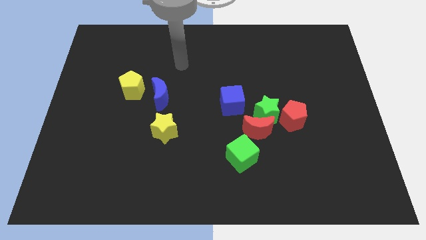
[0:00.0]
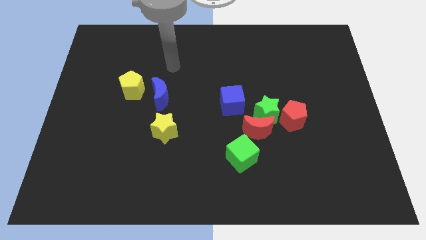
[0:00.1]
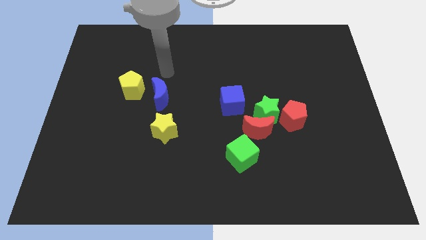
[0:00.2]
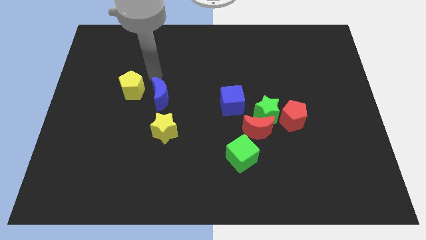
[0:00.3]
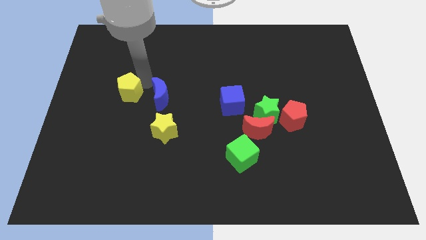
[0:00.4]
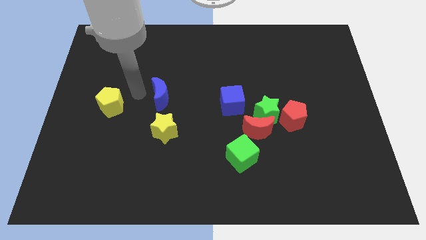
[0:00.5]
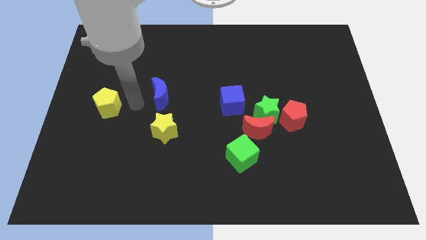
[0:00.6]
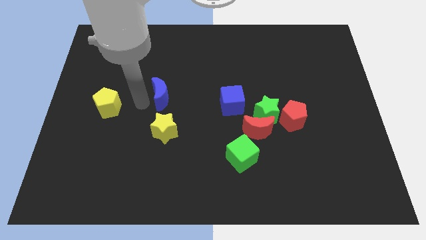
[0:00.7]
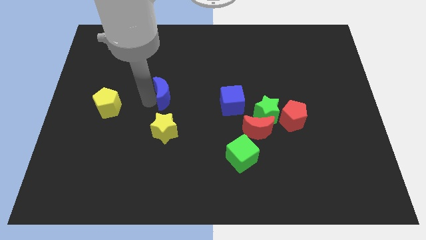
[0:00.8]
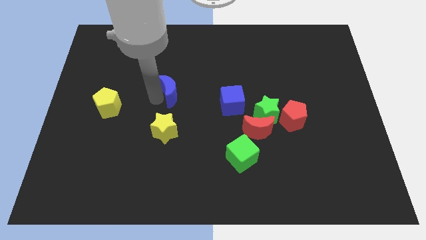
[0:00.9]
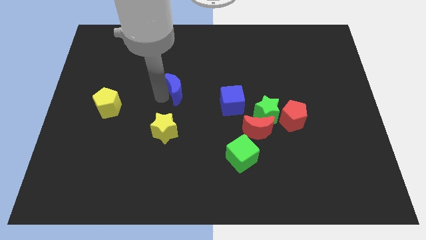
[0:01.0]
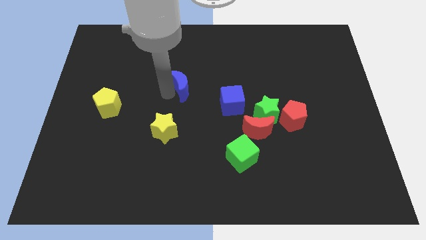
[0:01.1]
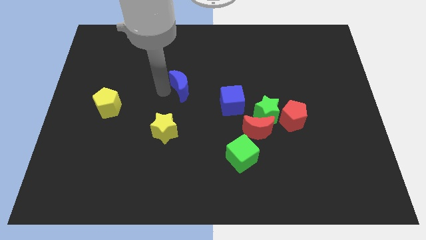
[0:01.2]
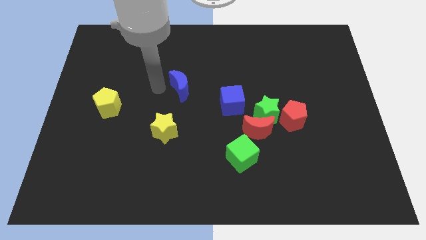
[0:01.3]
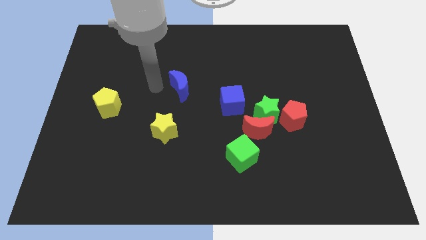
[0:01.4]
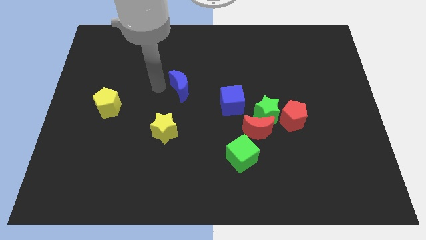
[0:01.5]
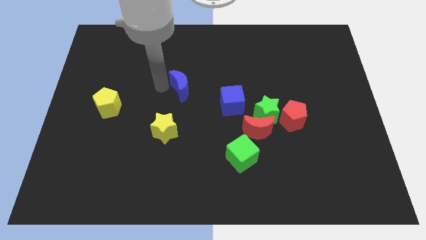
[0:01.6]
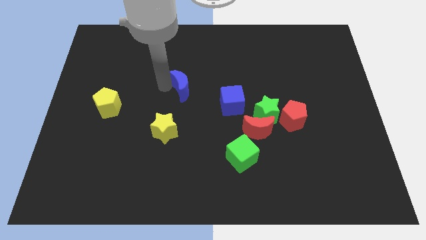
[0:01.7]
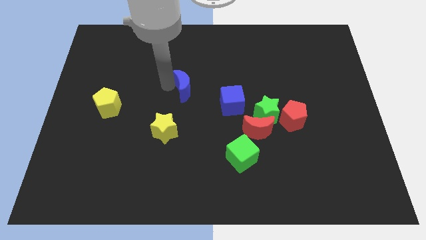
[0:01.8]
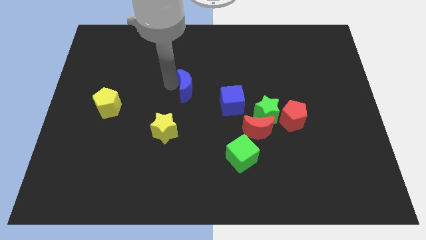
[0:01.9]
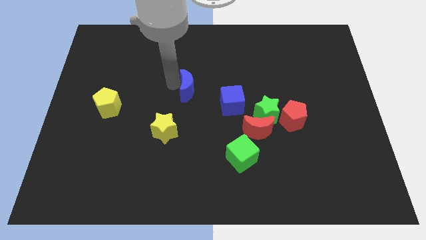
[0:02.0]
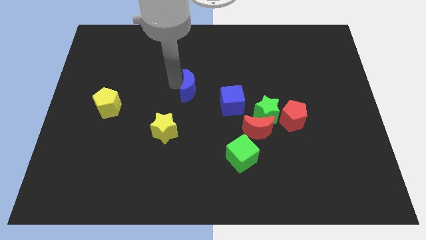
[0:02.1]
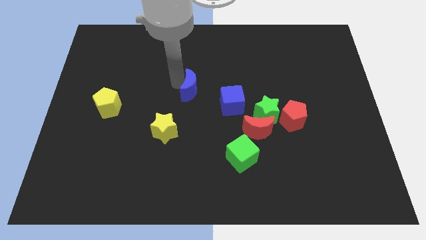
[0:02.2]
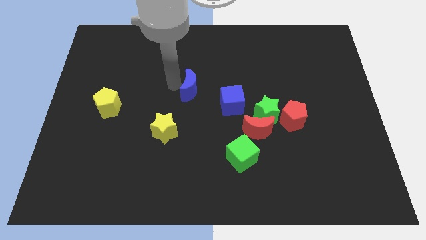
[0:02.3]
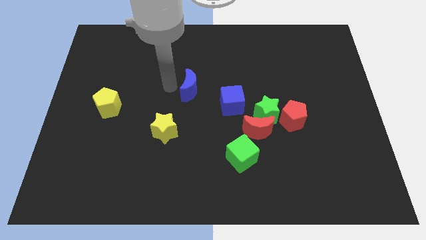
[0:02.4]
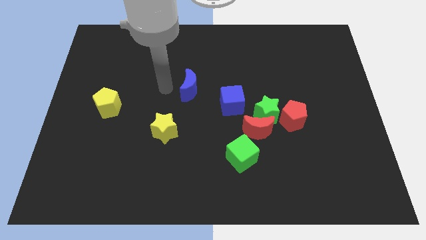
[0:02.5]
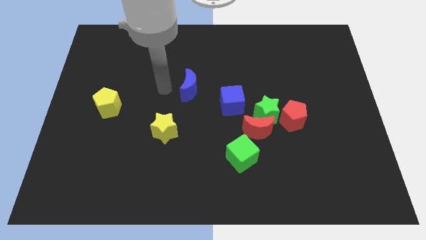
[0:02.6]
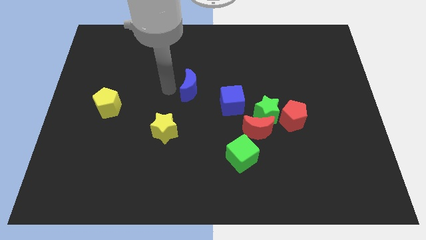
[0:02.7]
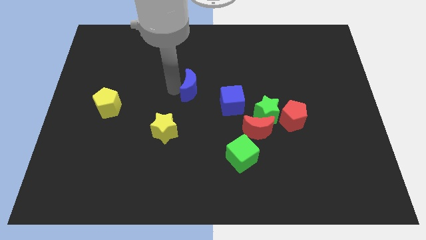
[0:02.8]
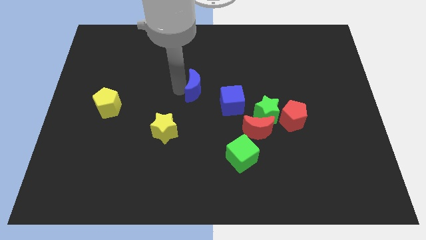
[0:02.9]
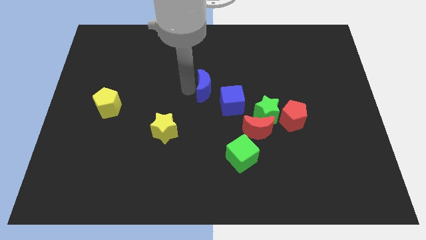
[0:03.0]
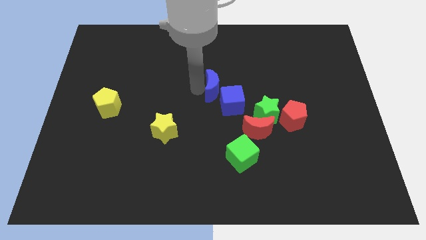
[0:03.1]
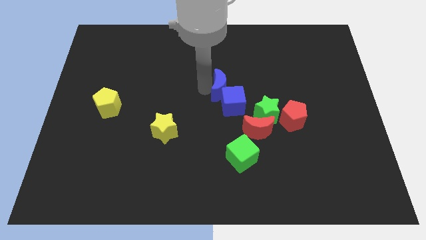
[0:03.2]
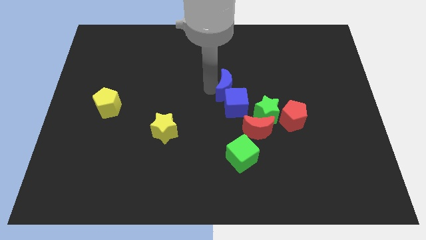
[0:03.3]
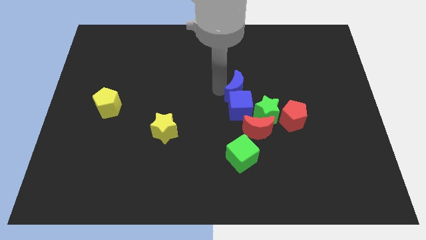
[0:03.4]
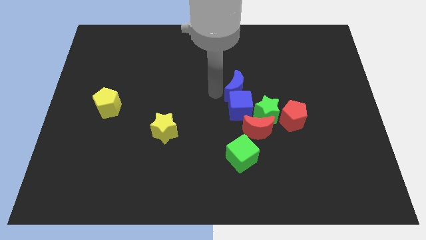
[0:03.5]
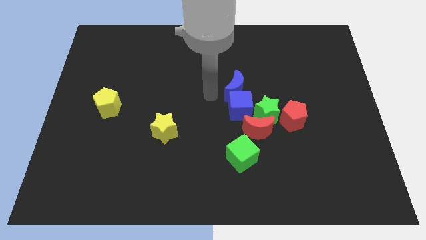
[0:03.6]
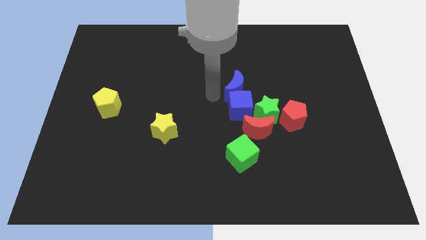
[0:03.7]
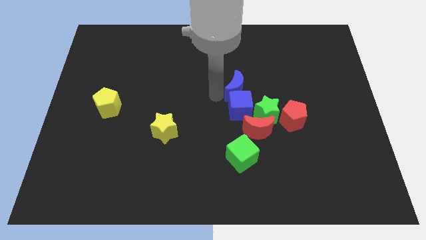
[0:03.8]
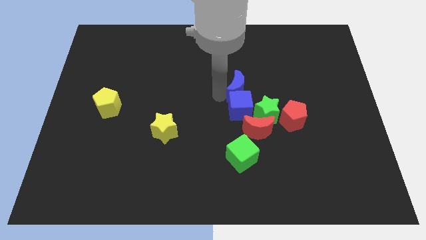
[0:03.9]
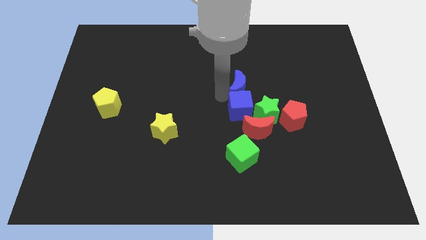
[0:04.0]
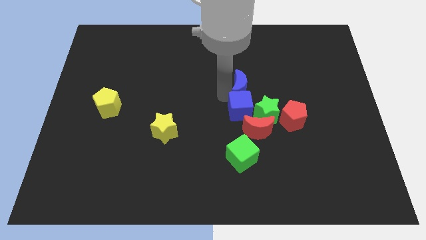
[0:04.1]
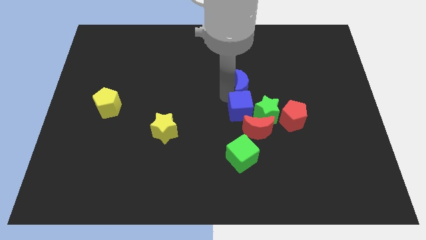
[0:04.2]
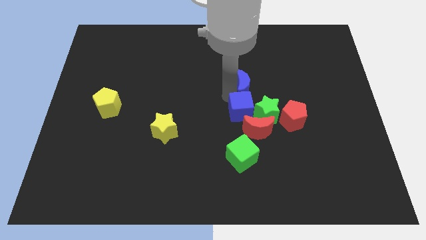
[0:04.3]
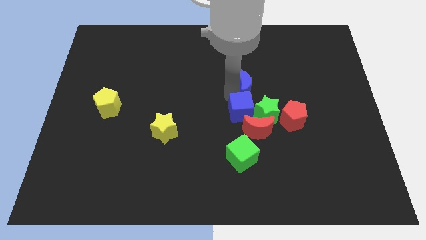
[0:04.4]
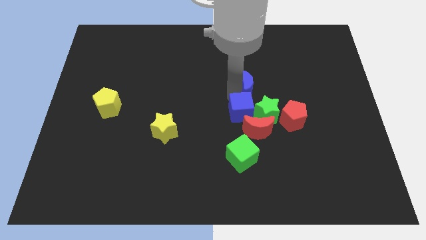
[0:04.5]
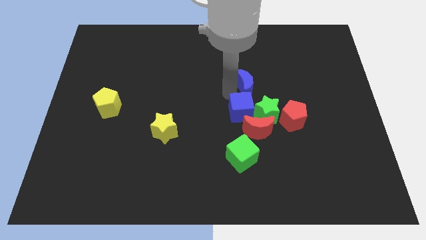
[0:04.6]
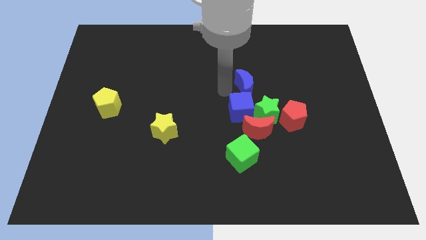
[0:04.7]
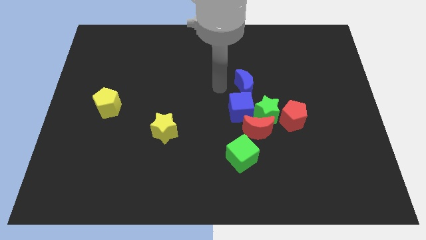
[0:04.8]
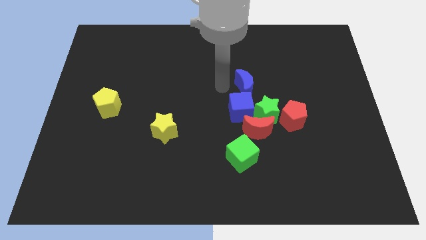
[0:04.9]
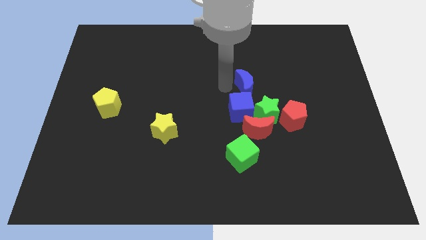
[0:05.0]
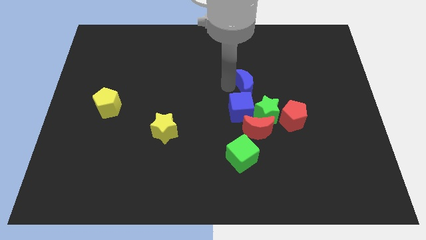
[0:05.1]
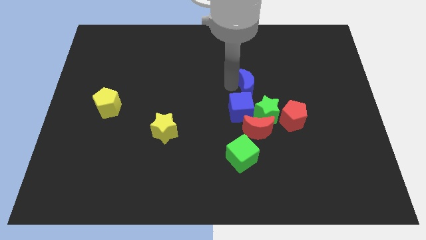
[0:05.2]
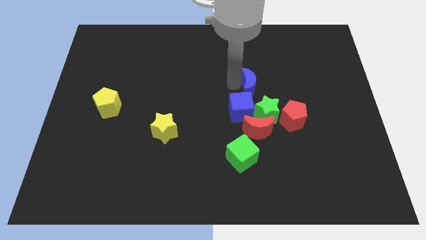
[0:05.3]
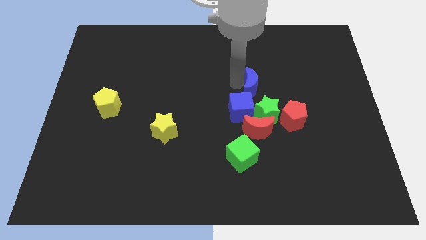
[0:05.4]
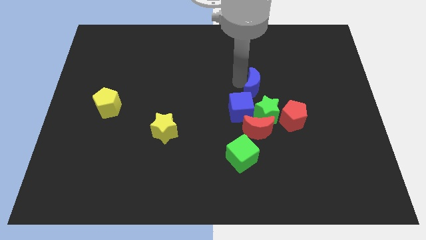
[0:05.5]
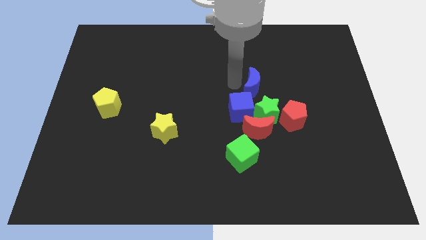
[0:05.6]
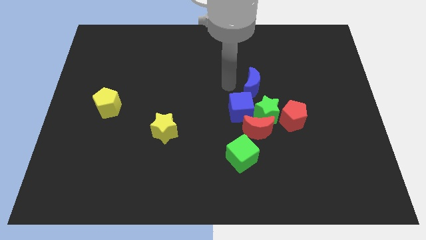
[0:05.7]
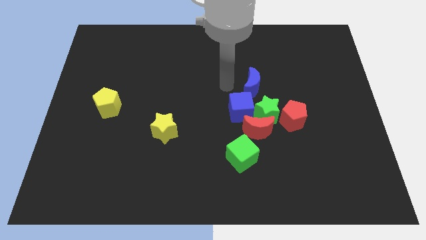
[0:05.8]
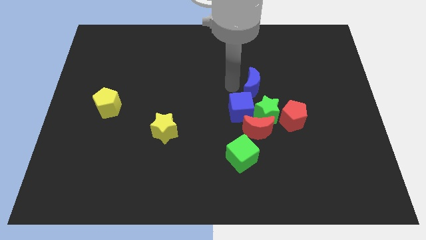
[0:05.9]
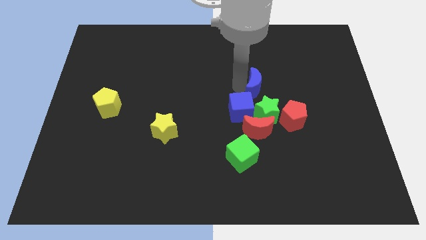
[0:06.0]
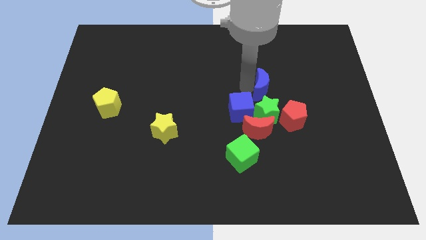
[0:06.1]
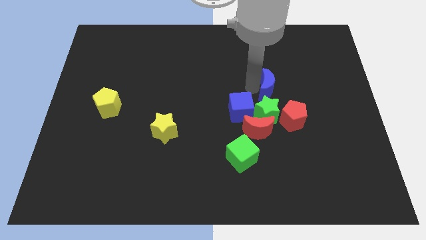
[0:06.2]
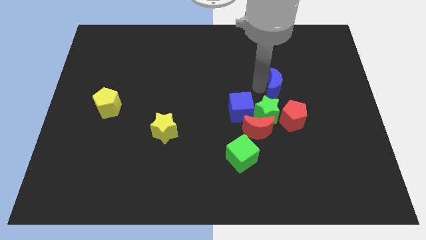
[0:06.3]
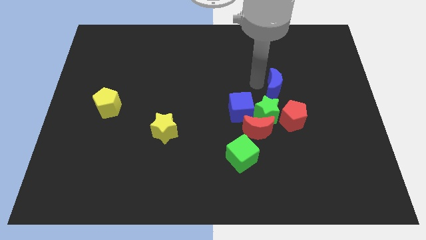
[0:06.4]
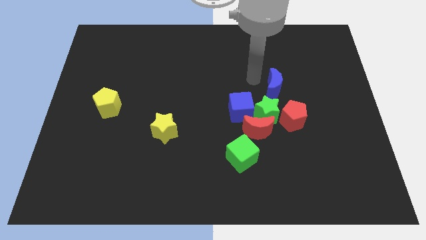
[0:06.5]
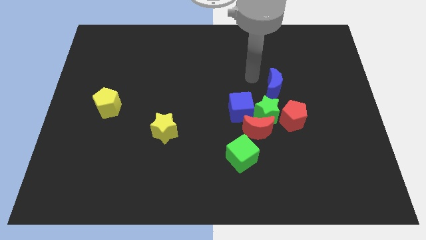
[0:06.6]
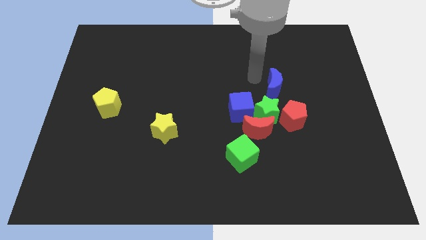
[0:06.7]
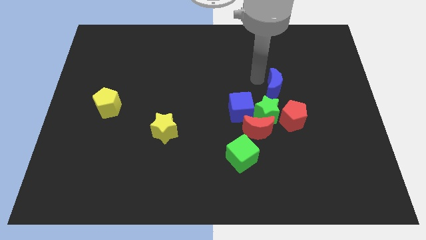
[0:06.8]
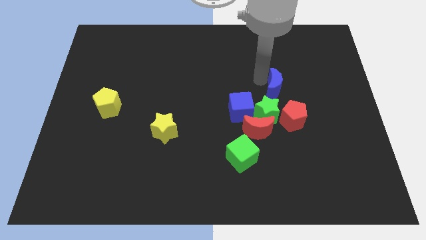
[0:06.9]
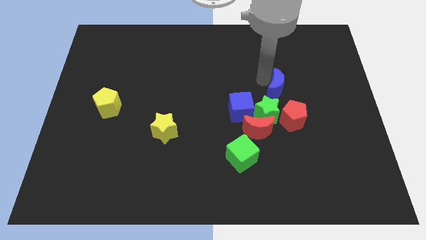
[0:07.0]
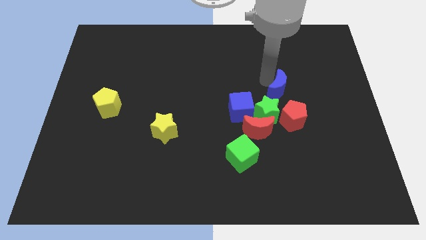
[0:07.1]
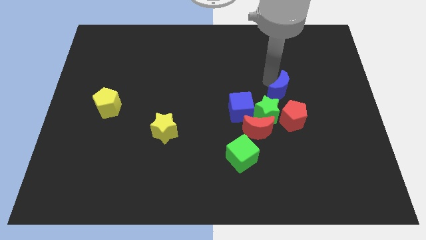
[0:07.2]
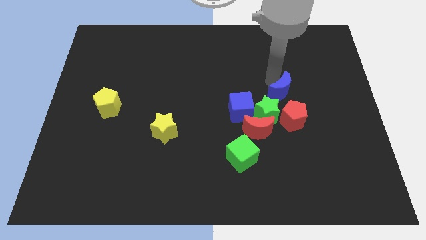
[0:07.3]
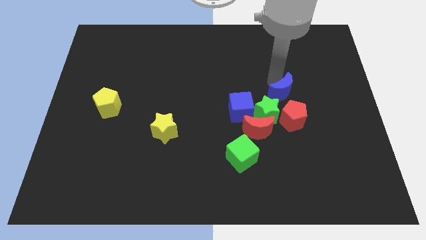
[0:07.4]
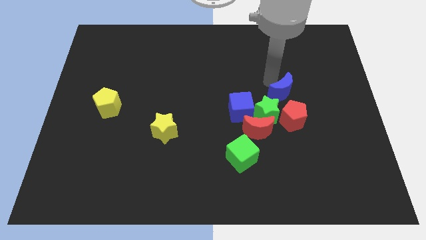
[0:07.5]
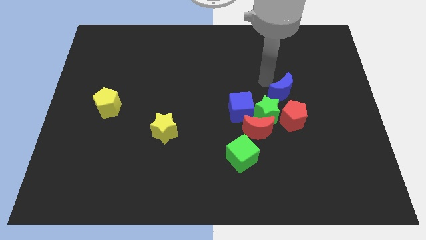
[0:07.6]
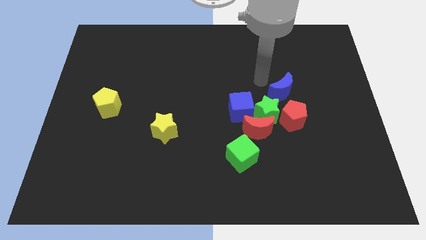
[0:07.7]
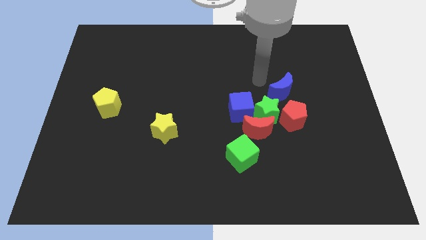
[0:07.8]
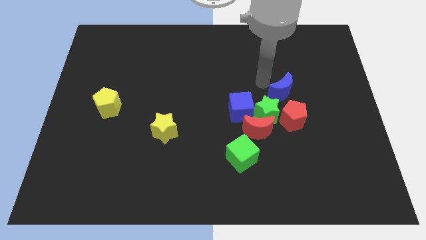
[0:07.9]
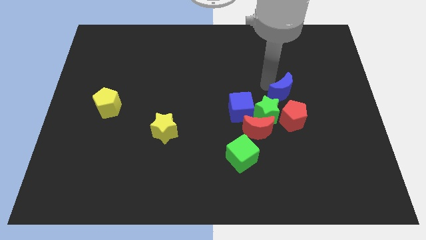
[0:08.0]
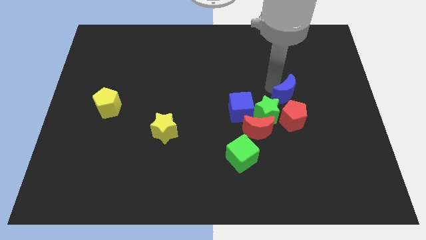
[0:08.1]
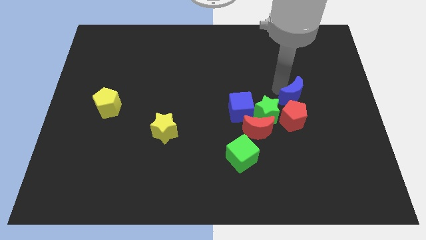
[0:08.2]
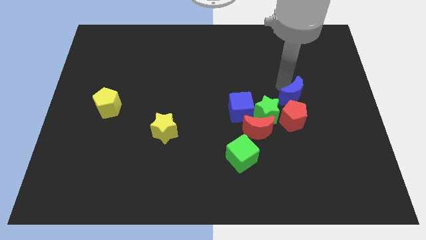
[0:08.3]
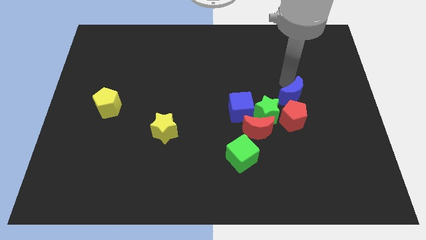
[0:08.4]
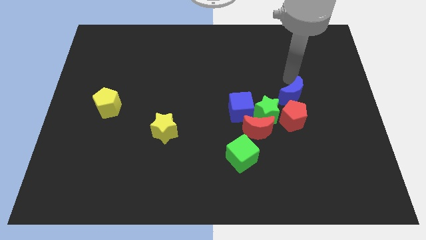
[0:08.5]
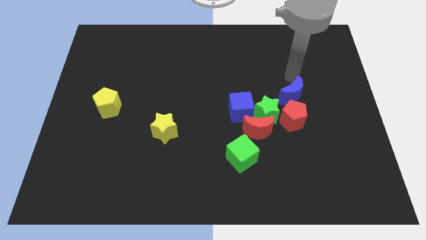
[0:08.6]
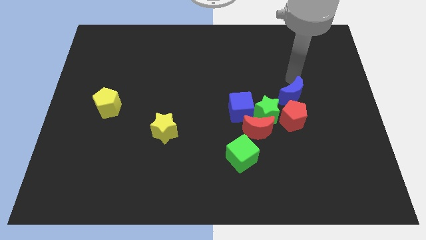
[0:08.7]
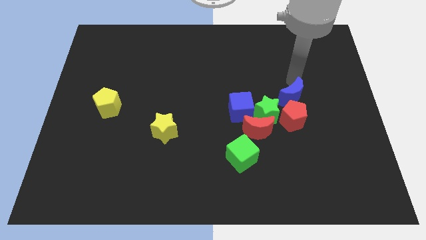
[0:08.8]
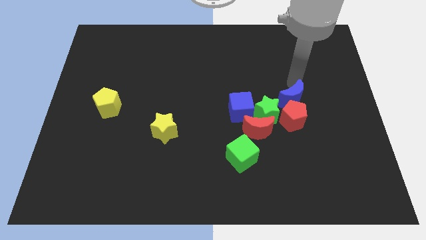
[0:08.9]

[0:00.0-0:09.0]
move the blue moon to the red pentagon
